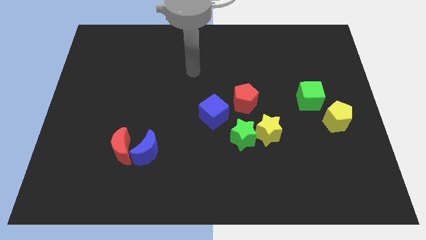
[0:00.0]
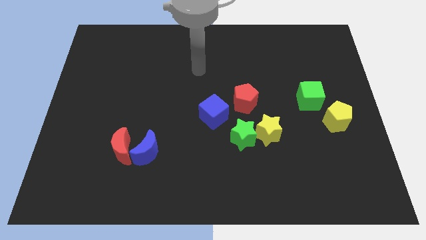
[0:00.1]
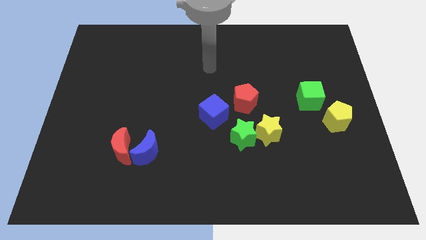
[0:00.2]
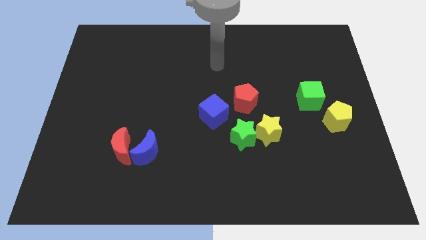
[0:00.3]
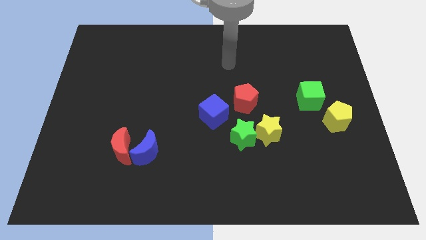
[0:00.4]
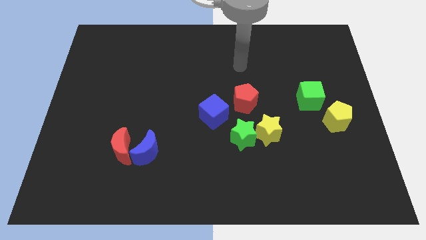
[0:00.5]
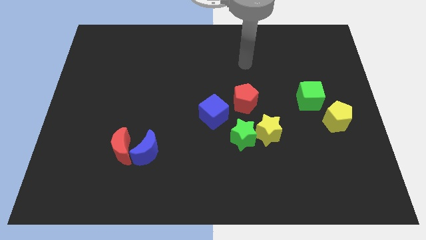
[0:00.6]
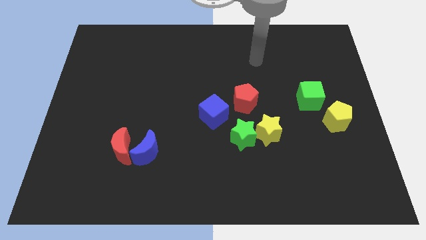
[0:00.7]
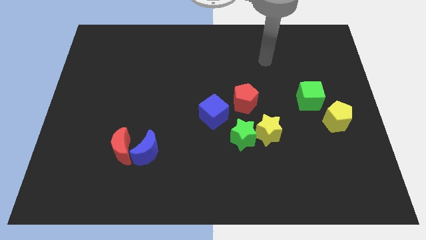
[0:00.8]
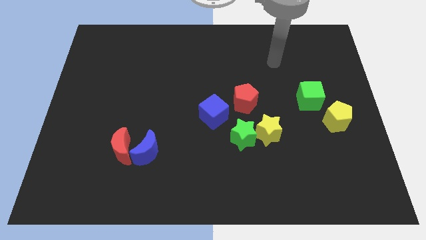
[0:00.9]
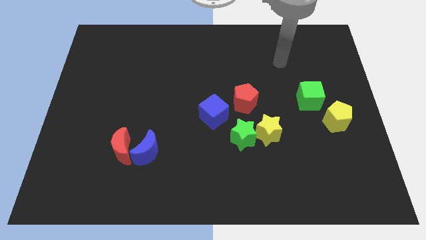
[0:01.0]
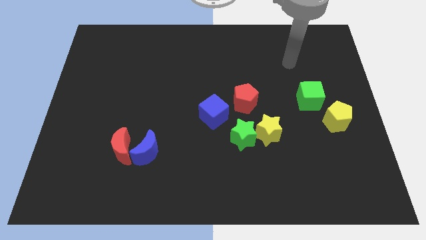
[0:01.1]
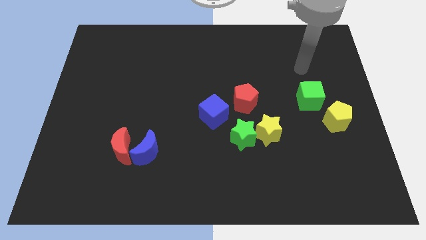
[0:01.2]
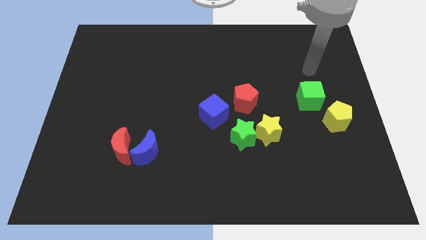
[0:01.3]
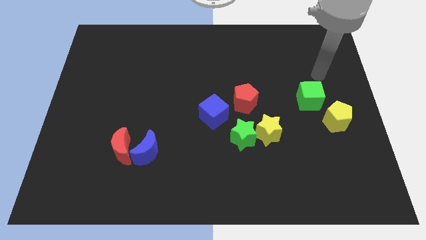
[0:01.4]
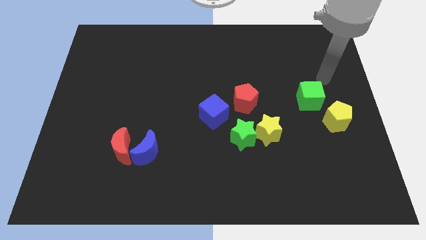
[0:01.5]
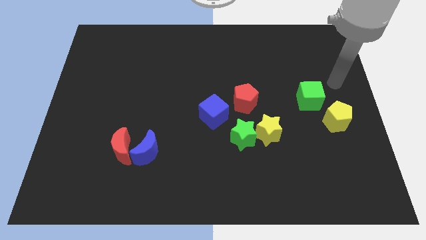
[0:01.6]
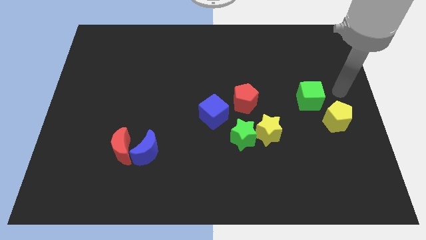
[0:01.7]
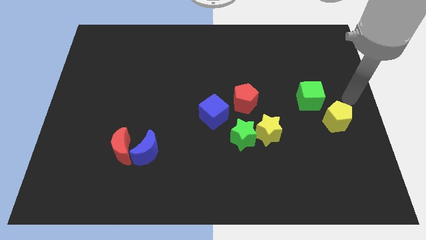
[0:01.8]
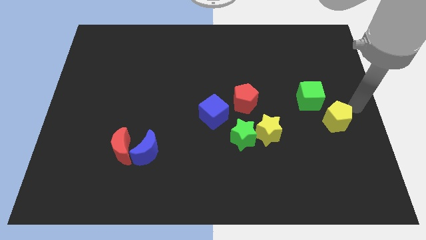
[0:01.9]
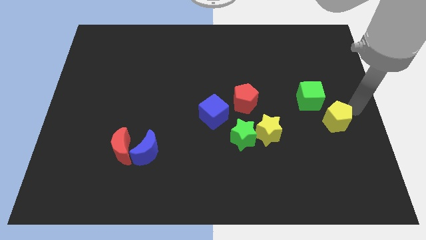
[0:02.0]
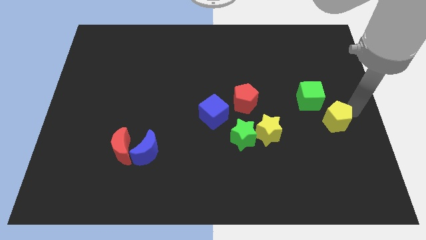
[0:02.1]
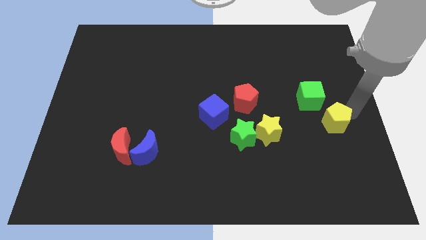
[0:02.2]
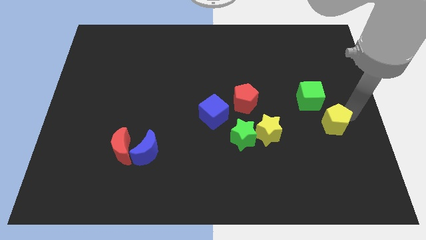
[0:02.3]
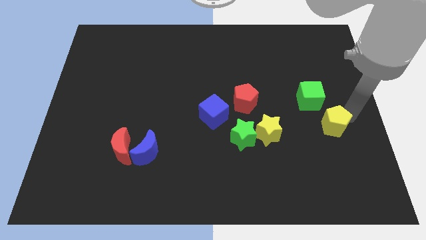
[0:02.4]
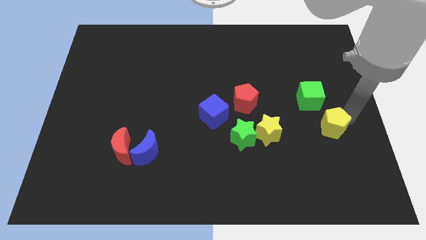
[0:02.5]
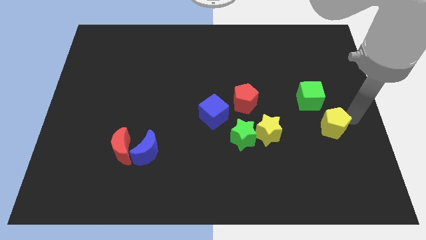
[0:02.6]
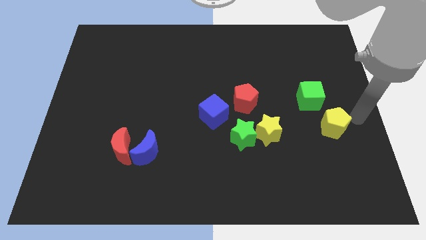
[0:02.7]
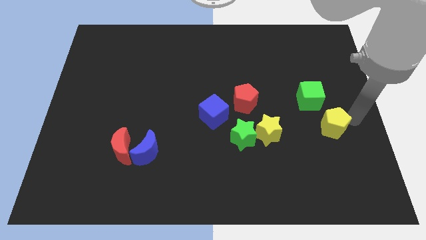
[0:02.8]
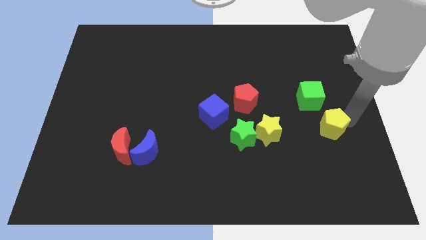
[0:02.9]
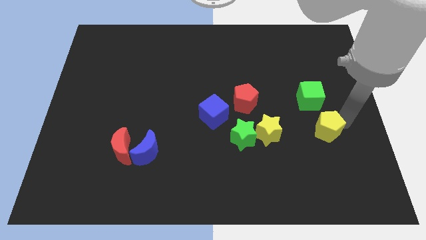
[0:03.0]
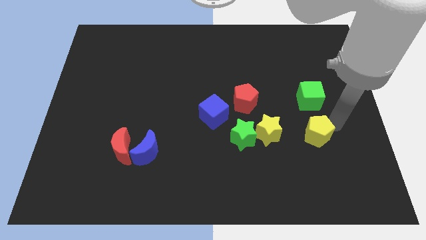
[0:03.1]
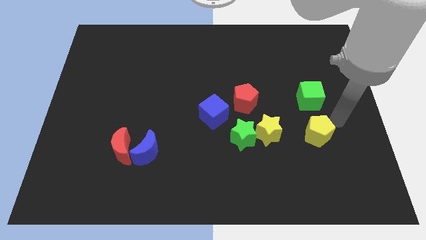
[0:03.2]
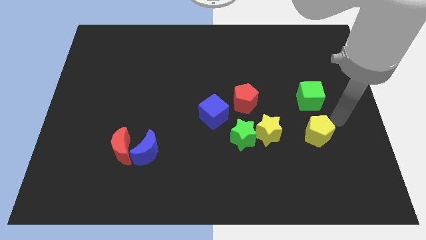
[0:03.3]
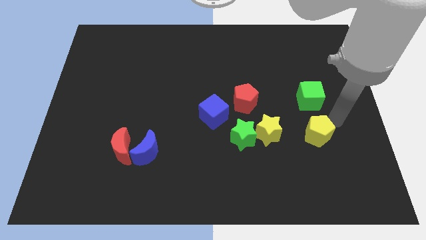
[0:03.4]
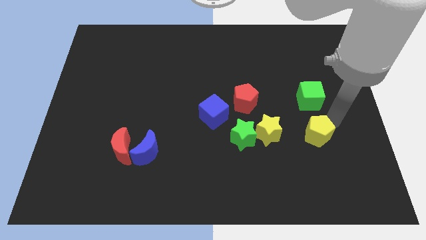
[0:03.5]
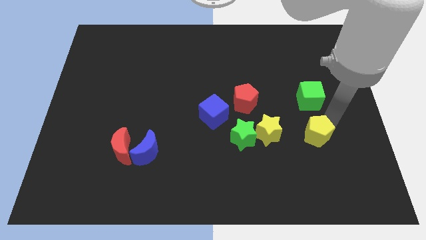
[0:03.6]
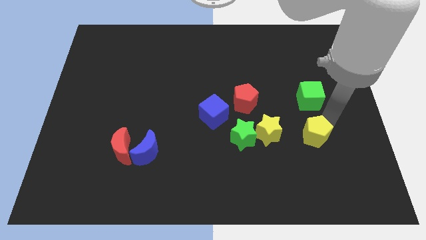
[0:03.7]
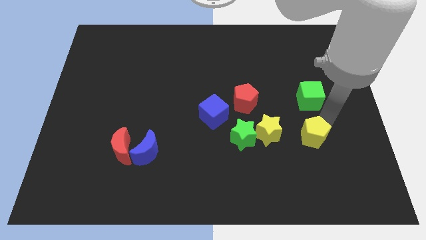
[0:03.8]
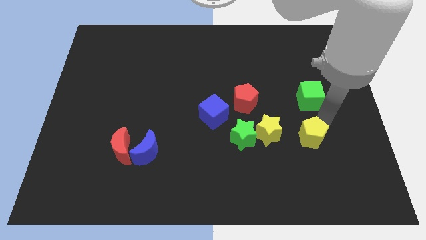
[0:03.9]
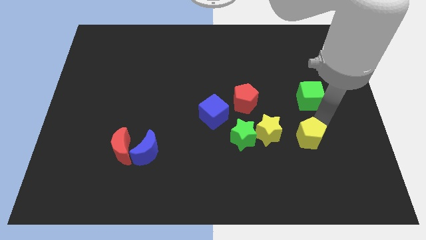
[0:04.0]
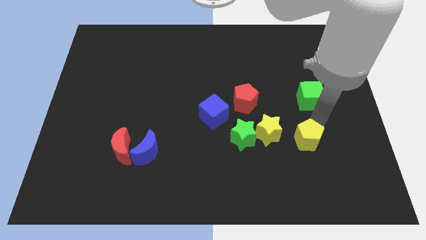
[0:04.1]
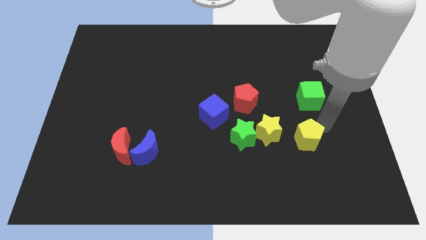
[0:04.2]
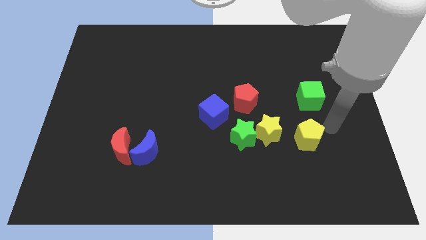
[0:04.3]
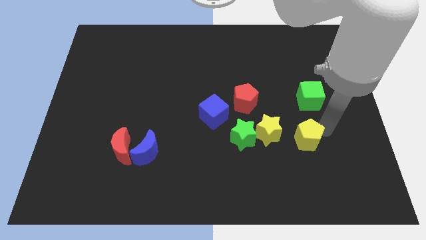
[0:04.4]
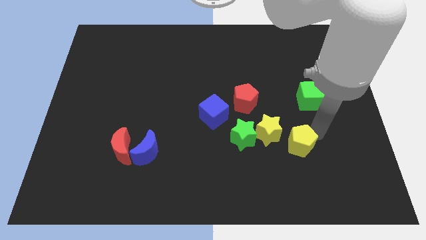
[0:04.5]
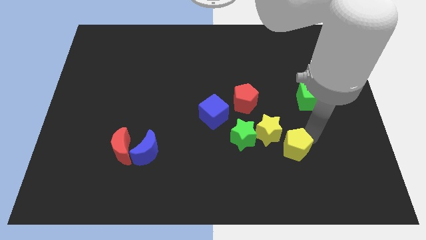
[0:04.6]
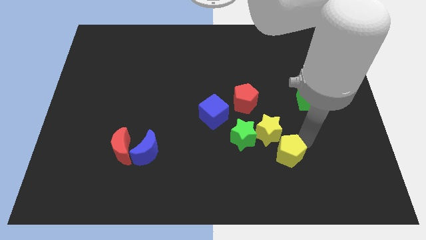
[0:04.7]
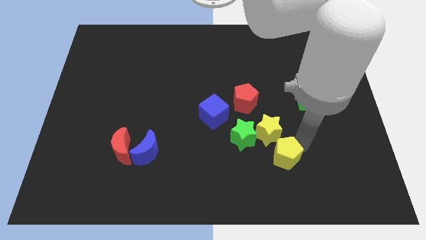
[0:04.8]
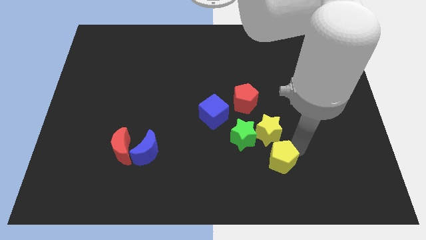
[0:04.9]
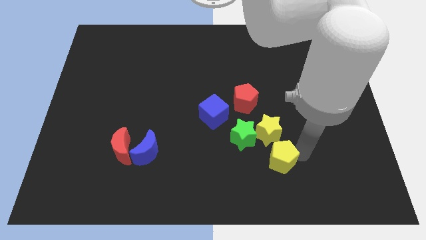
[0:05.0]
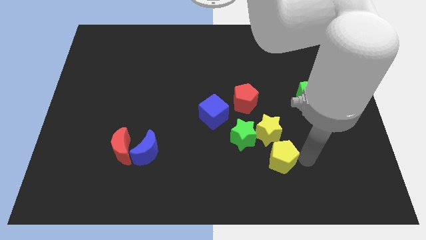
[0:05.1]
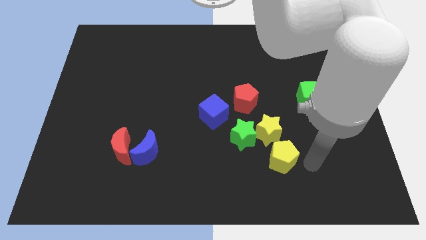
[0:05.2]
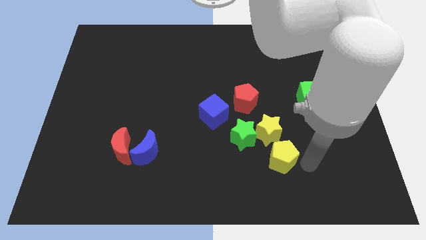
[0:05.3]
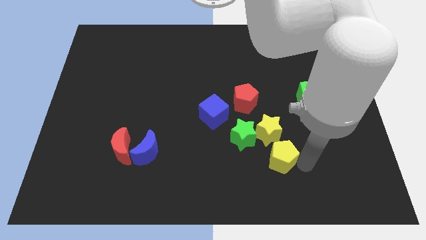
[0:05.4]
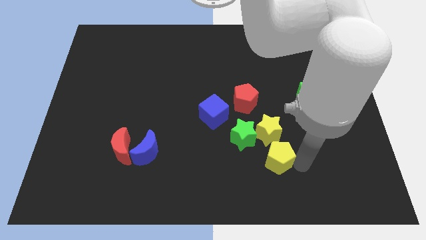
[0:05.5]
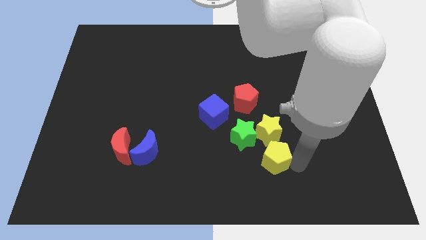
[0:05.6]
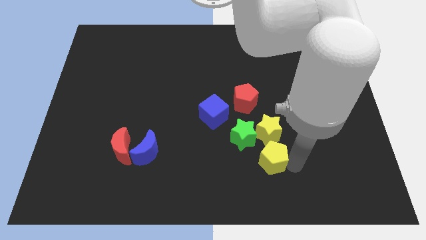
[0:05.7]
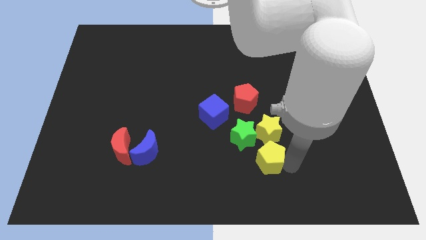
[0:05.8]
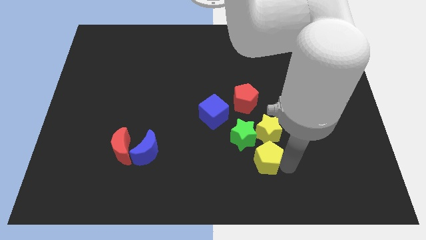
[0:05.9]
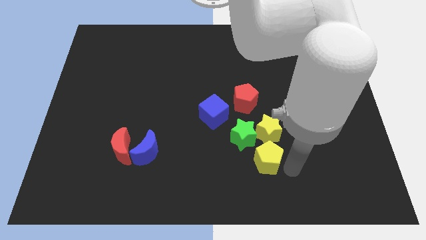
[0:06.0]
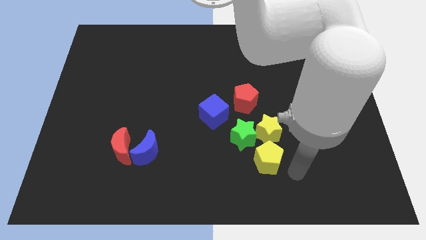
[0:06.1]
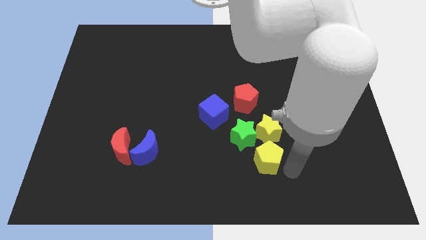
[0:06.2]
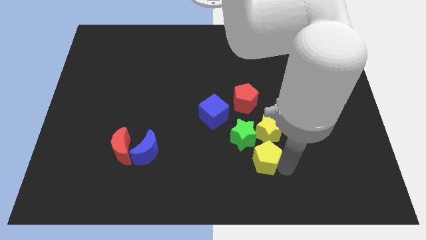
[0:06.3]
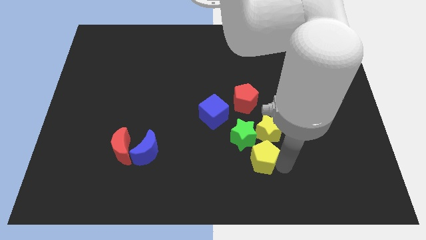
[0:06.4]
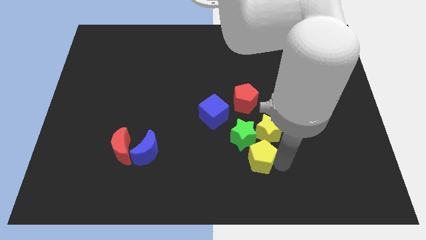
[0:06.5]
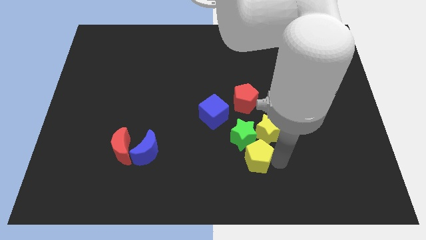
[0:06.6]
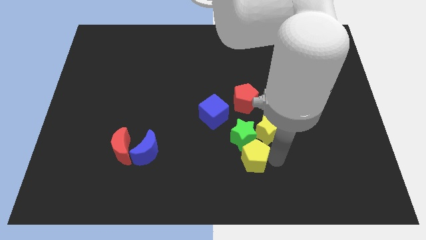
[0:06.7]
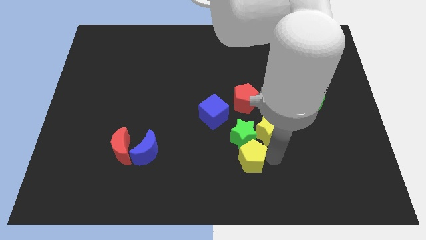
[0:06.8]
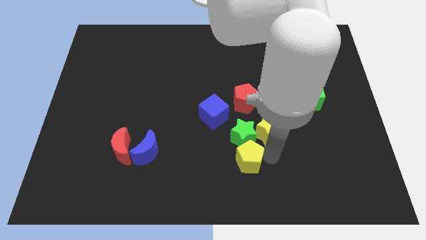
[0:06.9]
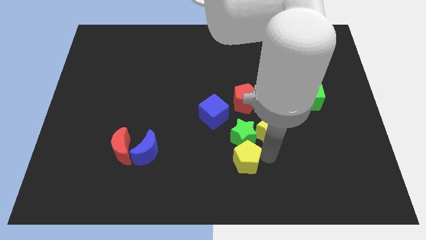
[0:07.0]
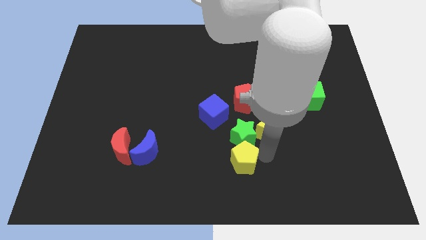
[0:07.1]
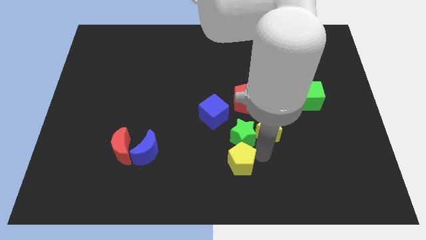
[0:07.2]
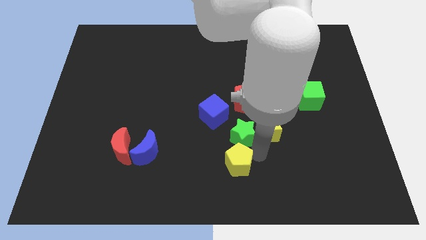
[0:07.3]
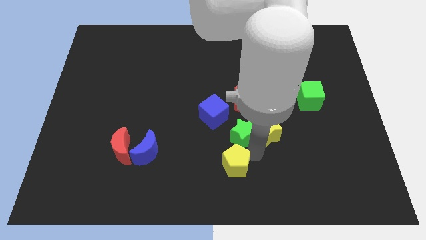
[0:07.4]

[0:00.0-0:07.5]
put the yellow pentagon to the bottom side of the blue cube
